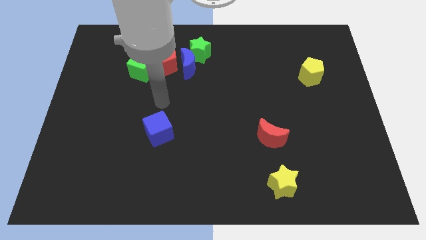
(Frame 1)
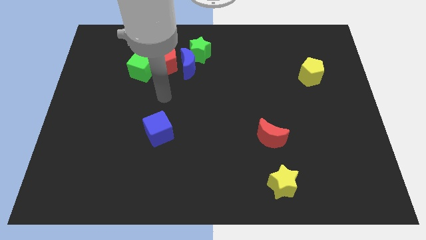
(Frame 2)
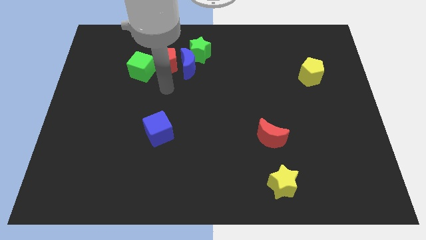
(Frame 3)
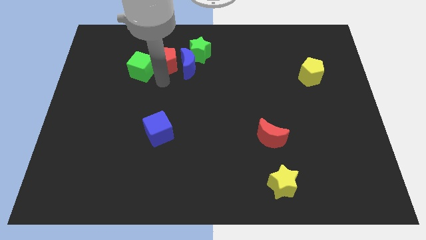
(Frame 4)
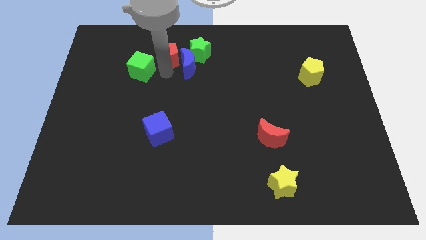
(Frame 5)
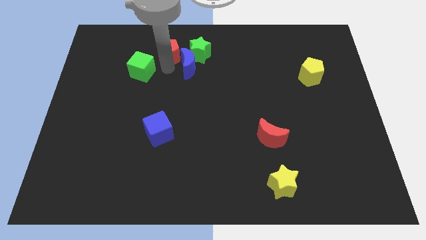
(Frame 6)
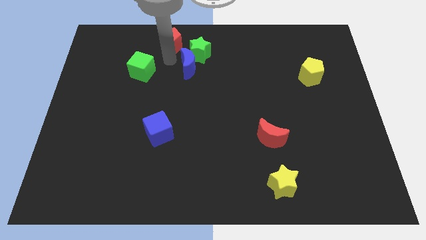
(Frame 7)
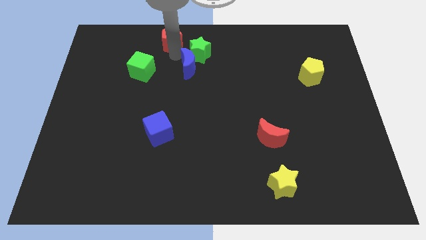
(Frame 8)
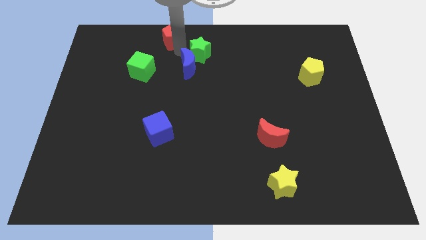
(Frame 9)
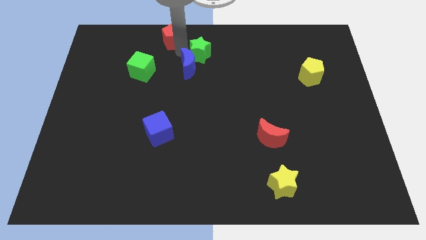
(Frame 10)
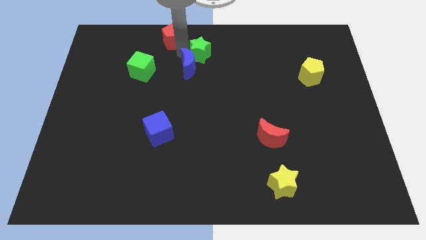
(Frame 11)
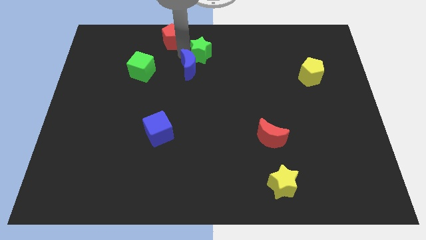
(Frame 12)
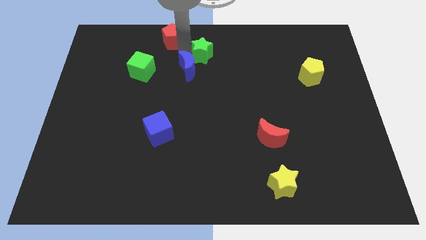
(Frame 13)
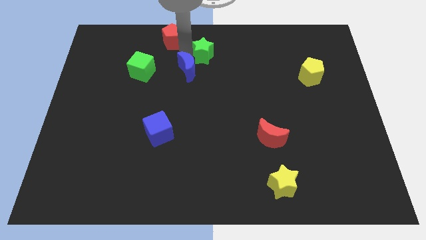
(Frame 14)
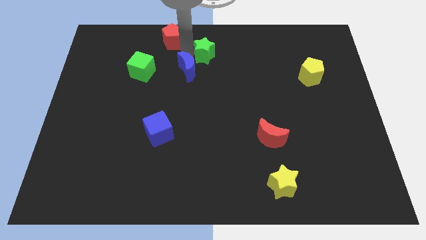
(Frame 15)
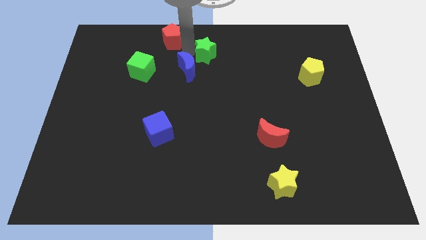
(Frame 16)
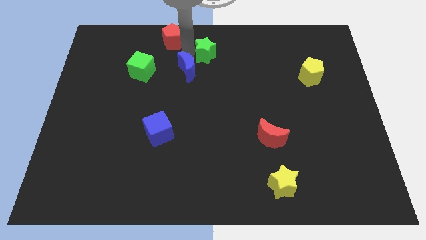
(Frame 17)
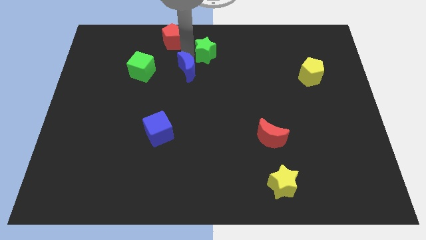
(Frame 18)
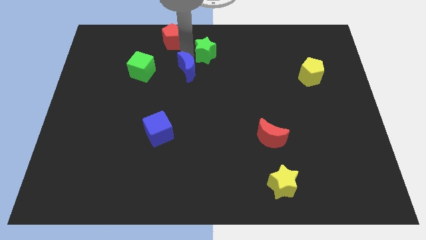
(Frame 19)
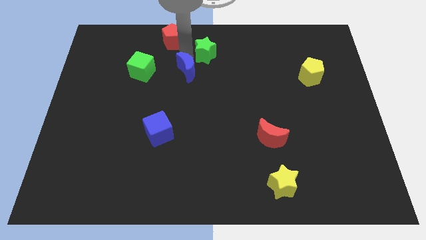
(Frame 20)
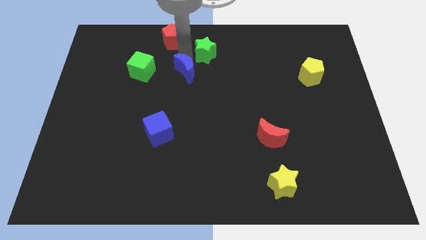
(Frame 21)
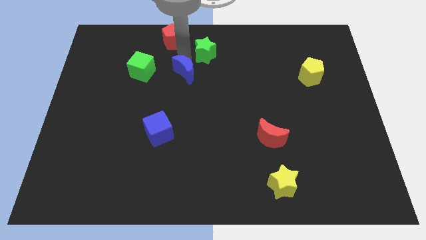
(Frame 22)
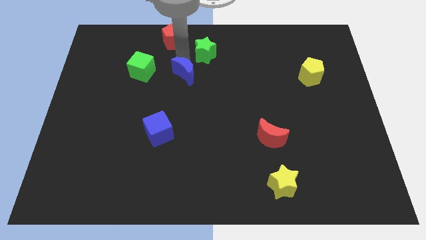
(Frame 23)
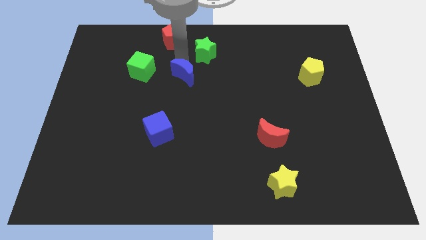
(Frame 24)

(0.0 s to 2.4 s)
separate the blue moon from the green star and red pentagon

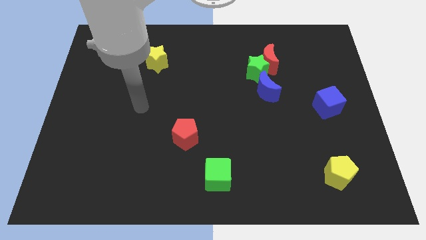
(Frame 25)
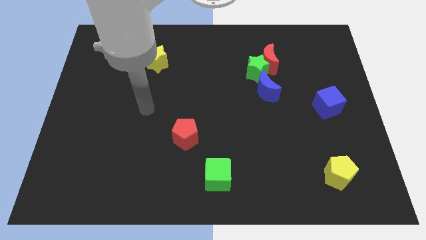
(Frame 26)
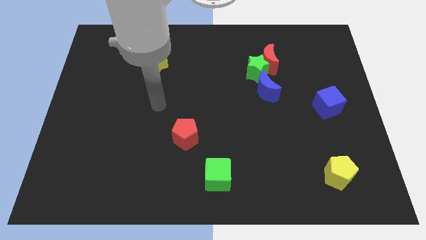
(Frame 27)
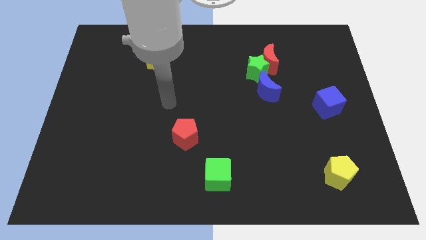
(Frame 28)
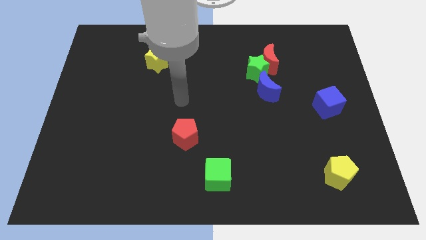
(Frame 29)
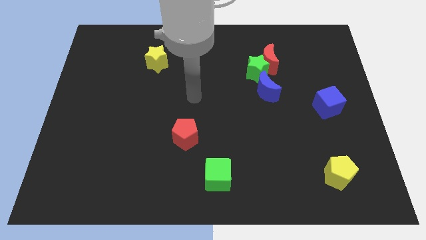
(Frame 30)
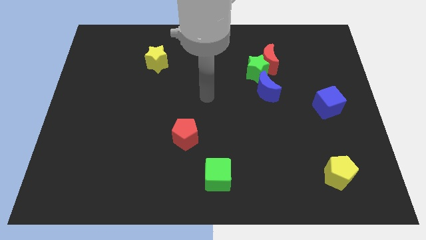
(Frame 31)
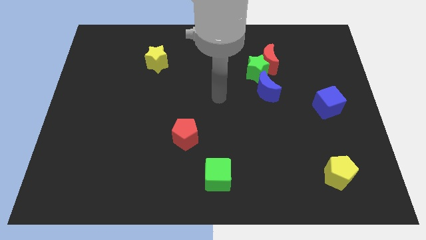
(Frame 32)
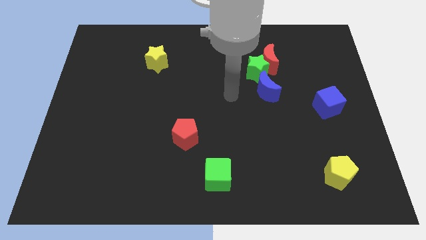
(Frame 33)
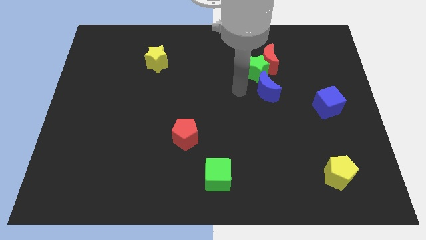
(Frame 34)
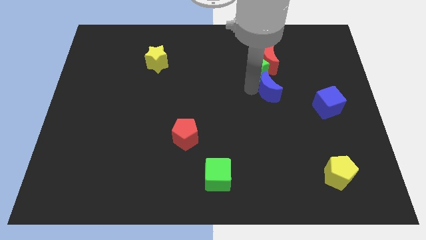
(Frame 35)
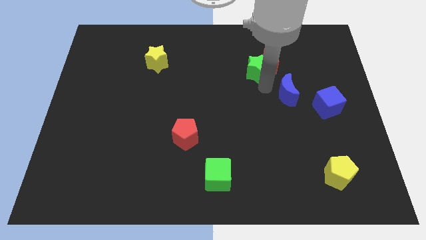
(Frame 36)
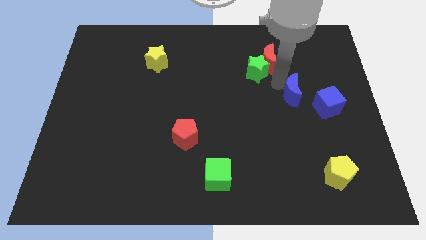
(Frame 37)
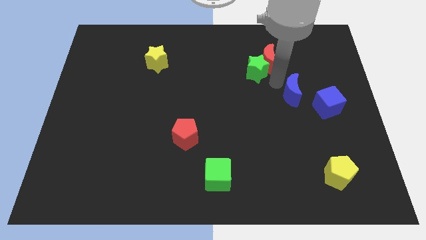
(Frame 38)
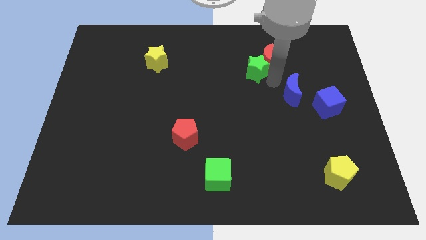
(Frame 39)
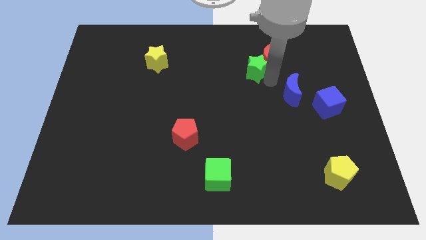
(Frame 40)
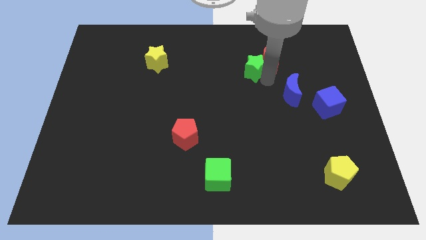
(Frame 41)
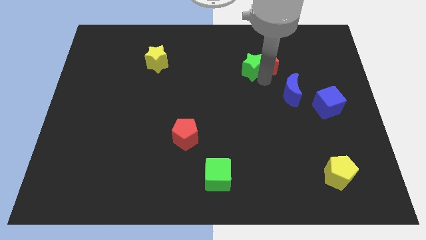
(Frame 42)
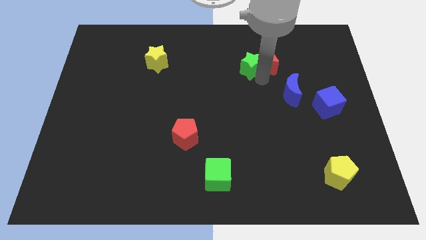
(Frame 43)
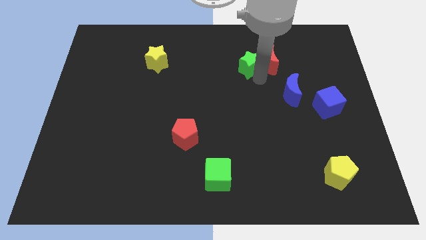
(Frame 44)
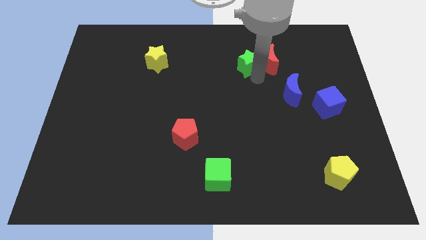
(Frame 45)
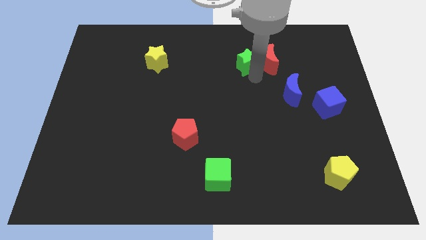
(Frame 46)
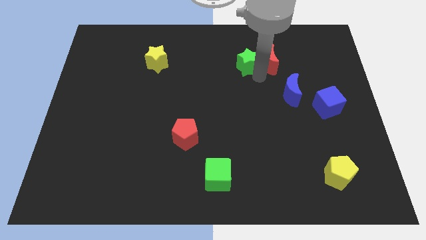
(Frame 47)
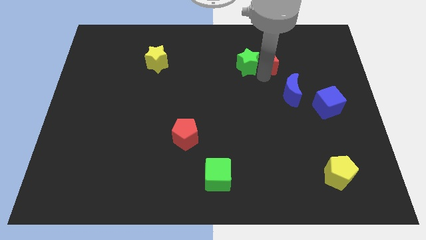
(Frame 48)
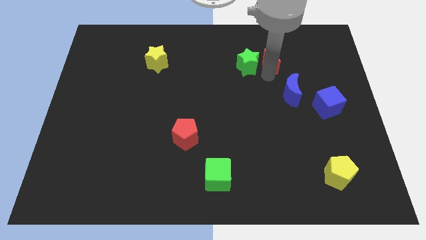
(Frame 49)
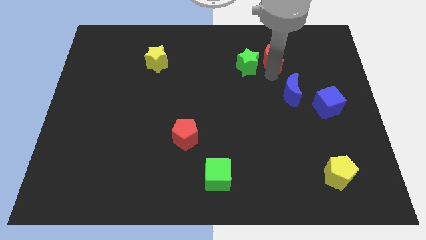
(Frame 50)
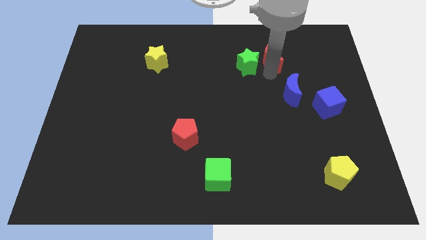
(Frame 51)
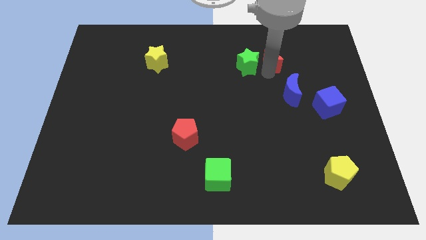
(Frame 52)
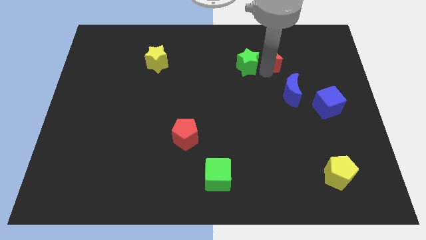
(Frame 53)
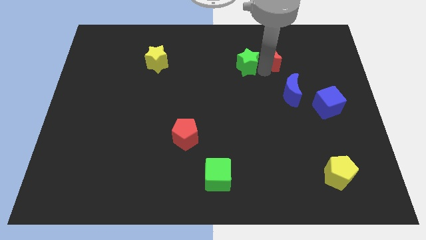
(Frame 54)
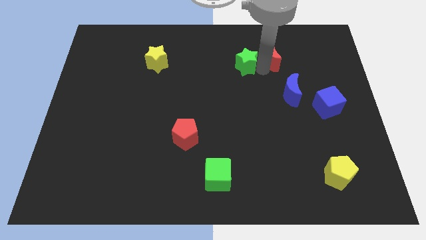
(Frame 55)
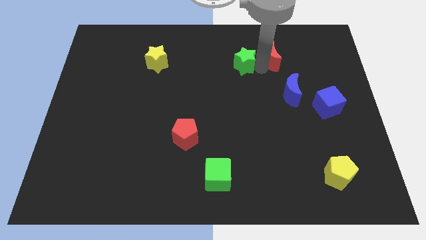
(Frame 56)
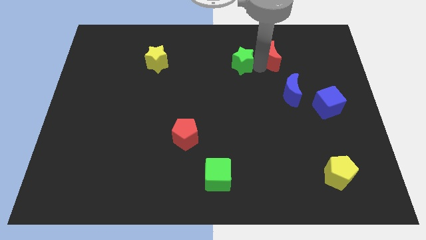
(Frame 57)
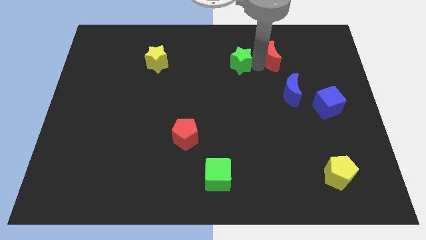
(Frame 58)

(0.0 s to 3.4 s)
move the green star away from the red moon and blue moon

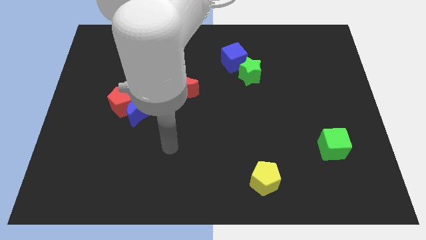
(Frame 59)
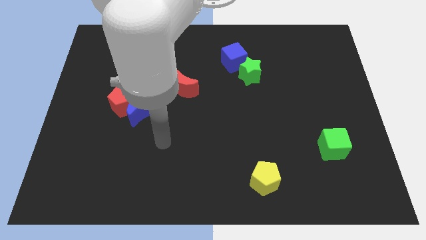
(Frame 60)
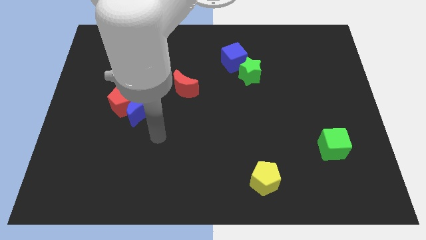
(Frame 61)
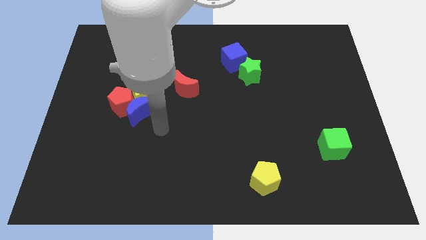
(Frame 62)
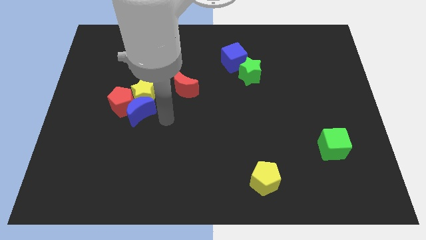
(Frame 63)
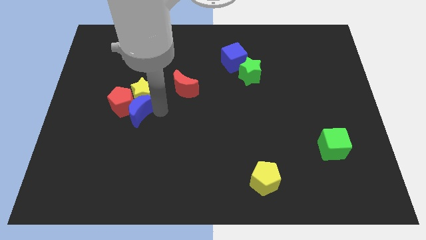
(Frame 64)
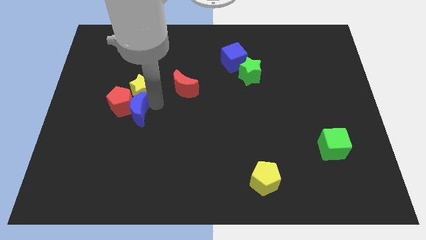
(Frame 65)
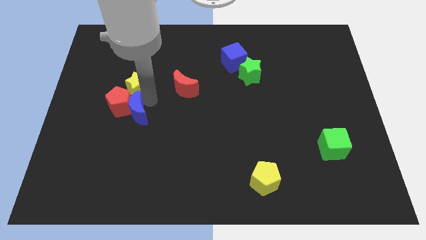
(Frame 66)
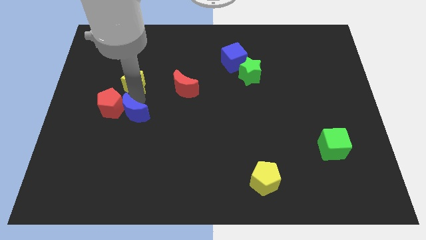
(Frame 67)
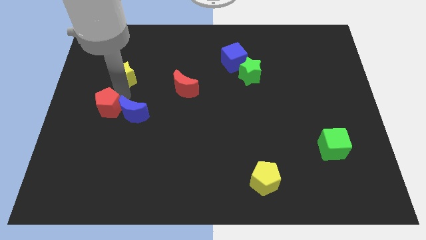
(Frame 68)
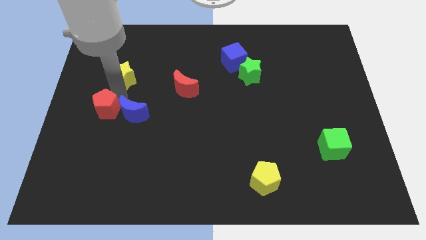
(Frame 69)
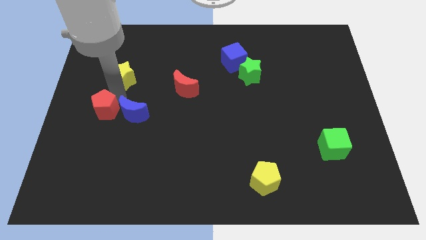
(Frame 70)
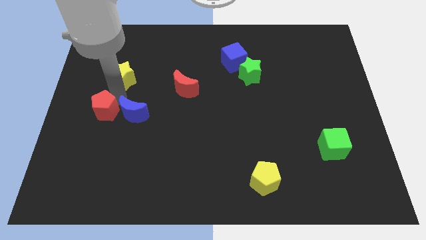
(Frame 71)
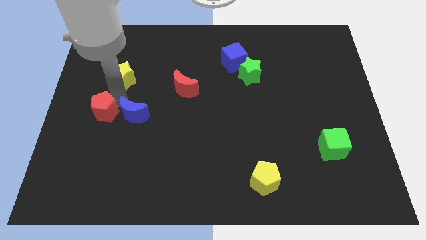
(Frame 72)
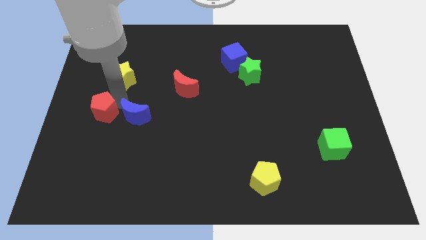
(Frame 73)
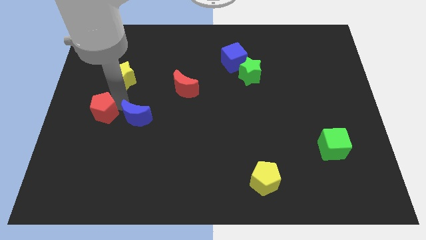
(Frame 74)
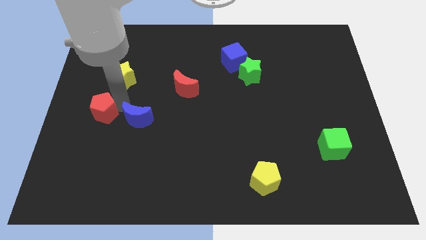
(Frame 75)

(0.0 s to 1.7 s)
move the blue moon away from the yellow star and red pentagon

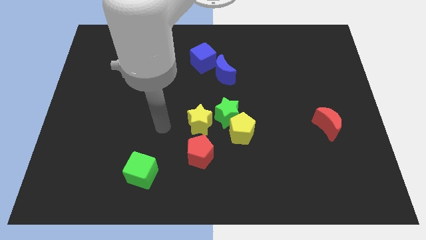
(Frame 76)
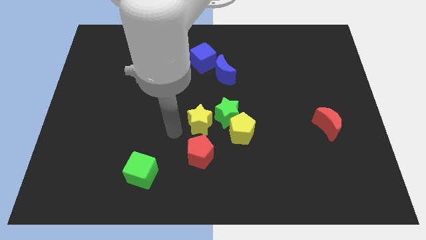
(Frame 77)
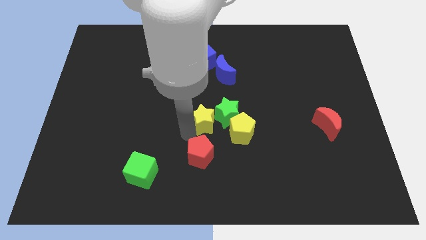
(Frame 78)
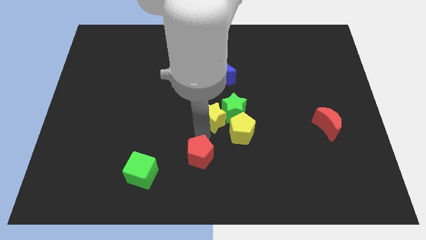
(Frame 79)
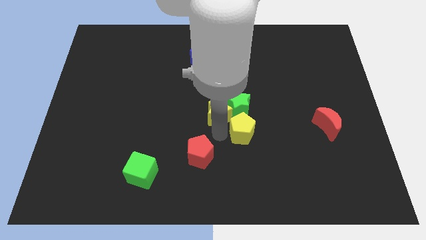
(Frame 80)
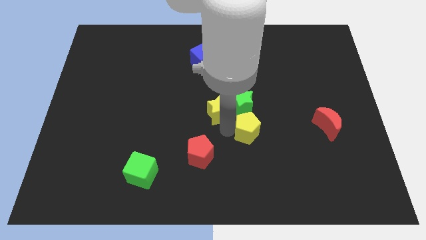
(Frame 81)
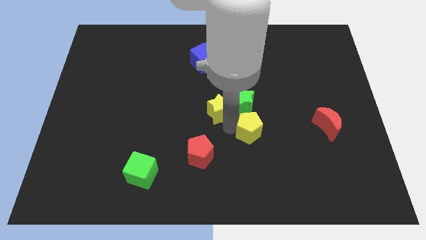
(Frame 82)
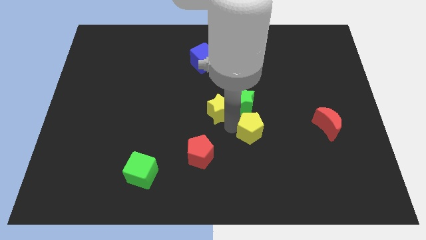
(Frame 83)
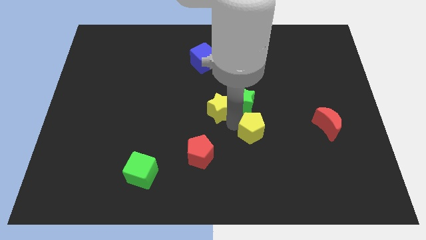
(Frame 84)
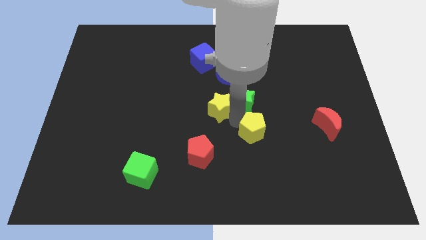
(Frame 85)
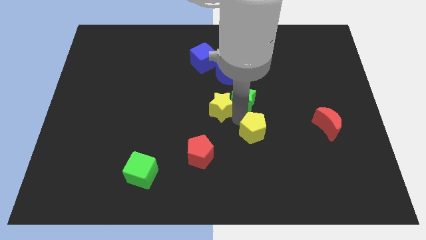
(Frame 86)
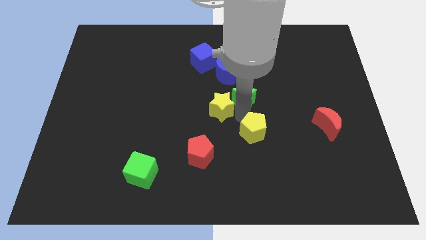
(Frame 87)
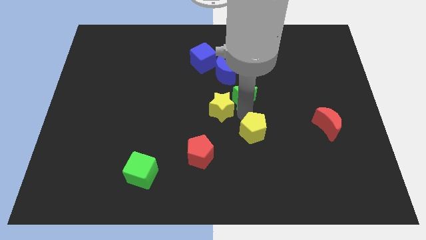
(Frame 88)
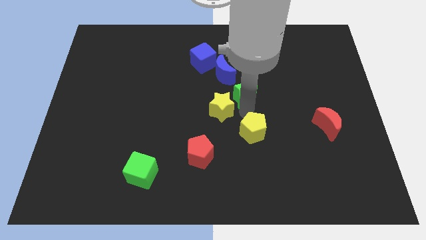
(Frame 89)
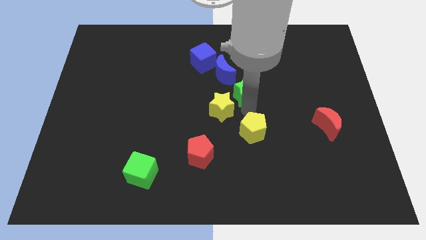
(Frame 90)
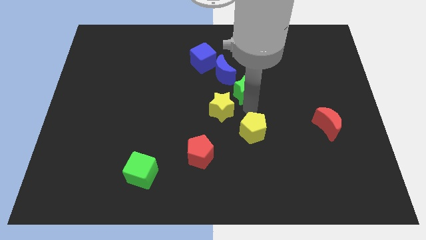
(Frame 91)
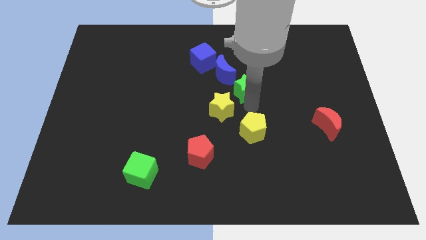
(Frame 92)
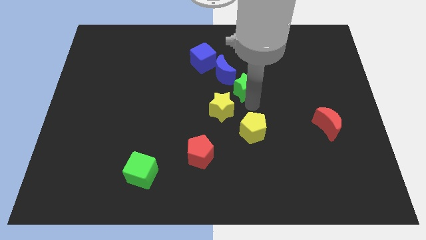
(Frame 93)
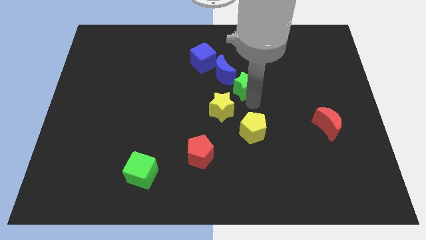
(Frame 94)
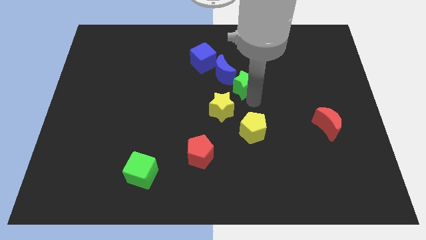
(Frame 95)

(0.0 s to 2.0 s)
separate the green star from the yellow pentagon and yellow star
